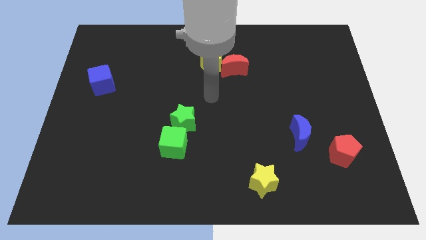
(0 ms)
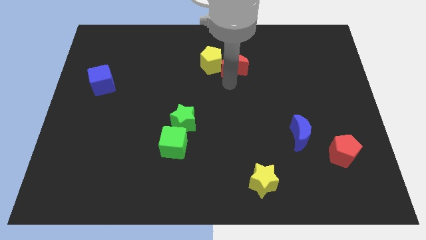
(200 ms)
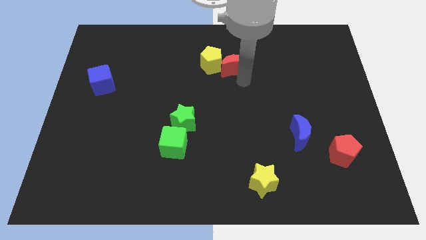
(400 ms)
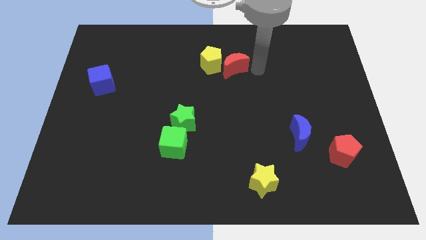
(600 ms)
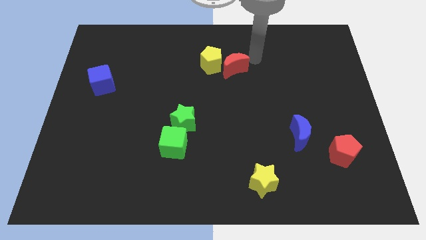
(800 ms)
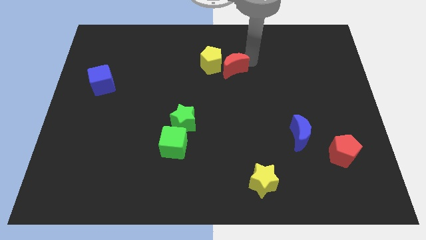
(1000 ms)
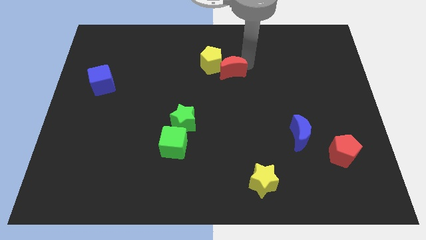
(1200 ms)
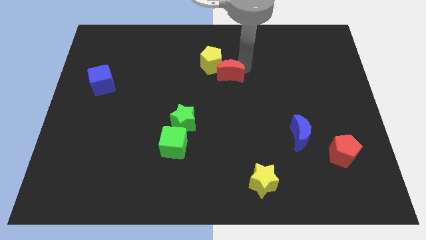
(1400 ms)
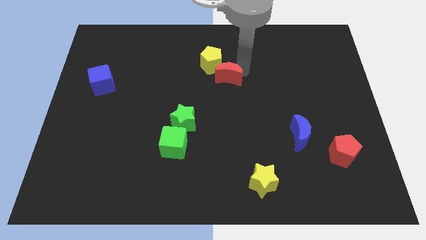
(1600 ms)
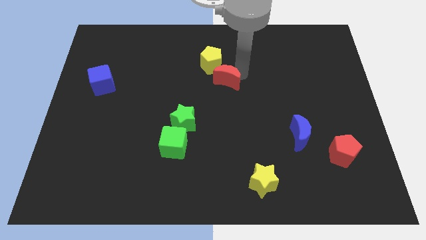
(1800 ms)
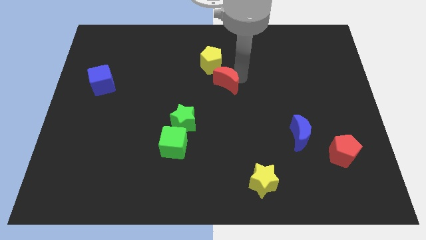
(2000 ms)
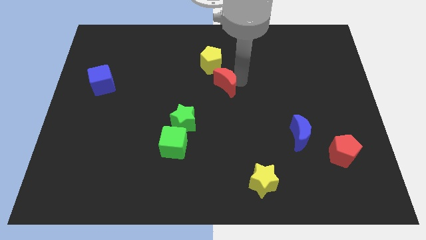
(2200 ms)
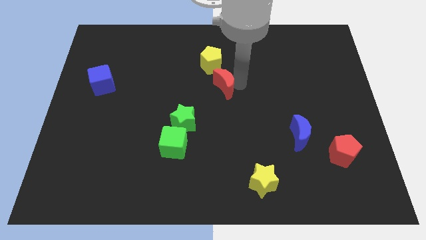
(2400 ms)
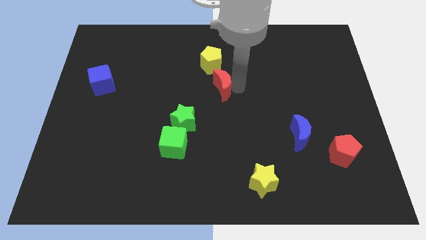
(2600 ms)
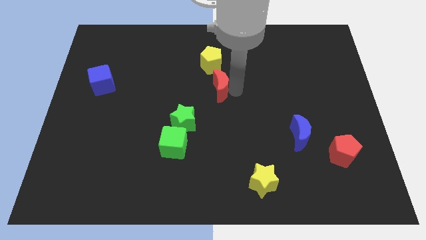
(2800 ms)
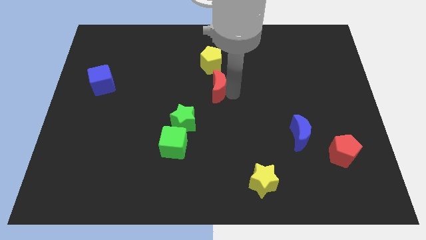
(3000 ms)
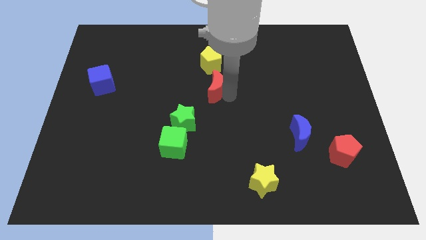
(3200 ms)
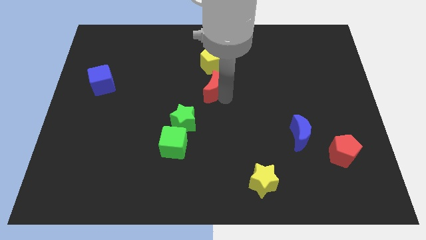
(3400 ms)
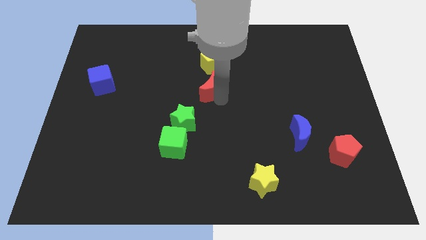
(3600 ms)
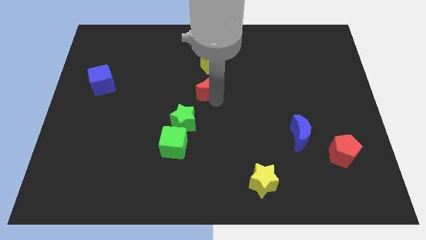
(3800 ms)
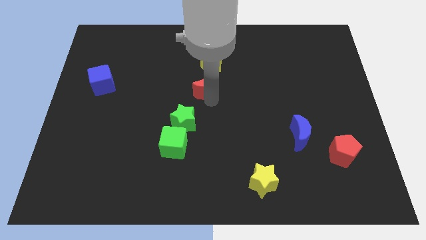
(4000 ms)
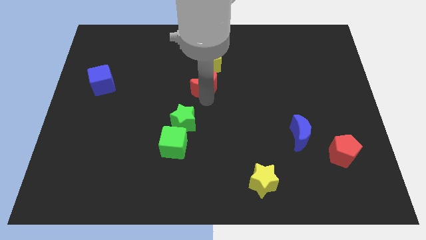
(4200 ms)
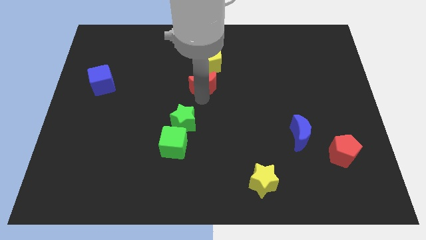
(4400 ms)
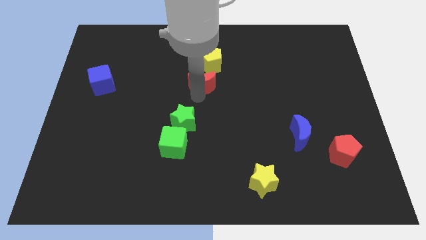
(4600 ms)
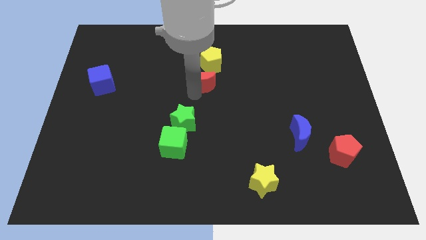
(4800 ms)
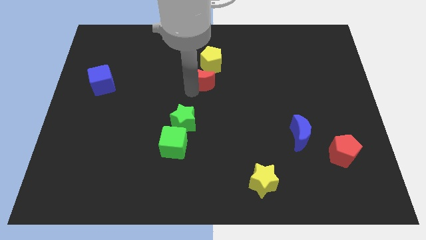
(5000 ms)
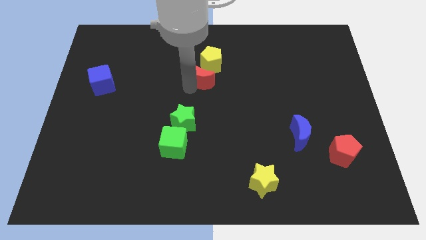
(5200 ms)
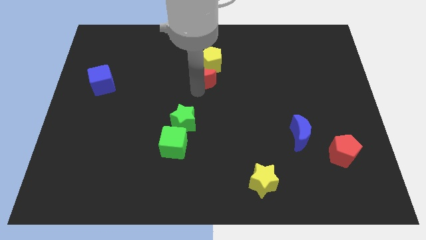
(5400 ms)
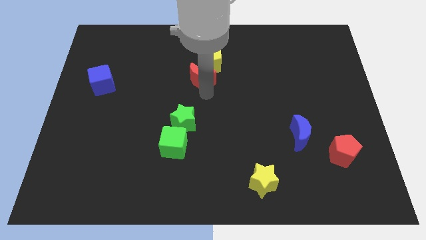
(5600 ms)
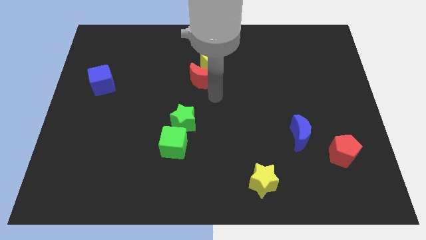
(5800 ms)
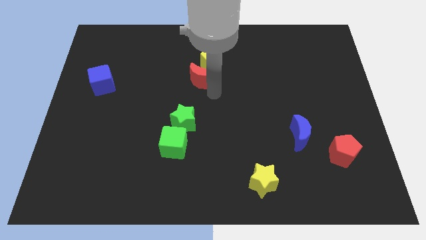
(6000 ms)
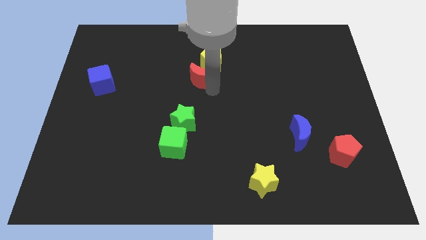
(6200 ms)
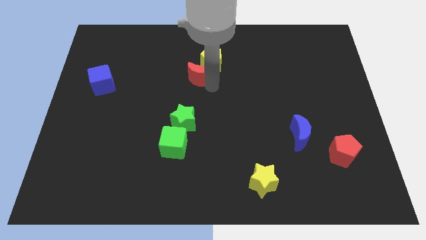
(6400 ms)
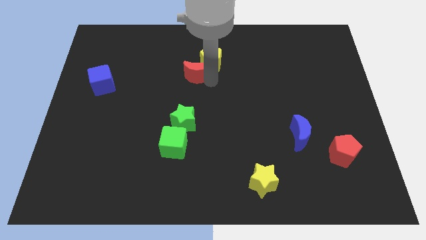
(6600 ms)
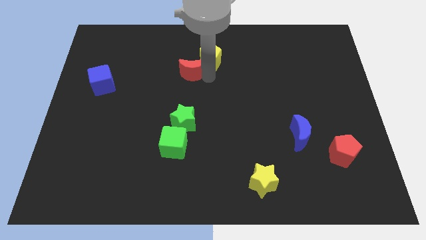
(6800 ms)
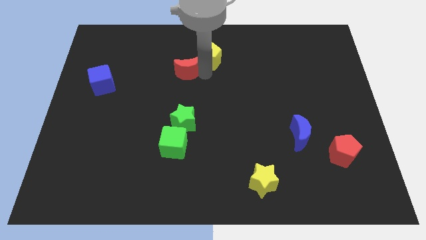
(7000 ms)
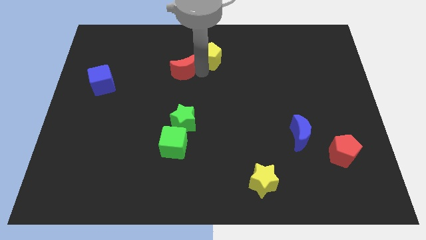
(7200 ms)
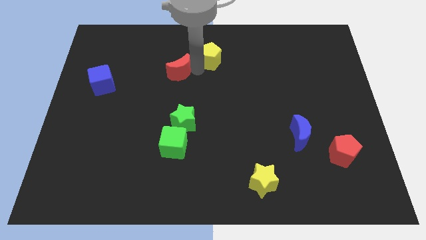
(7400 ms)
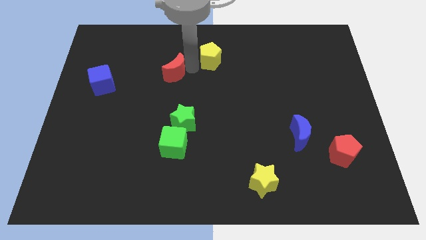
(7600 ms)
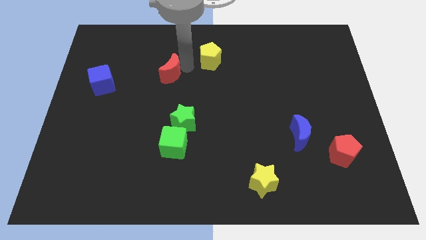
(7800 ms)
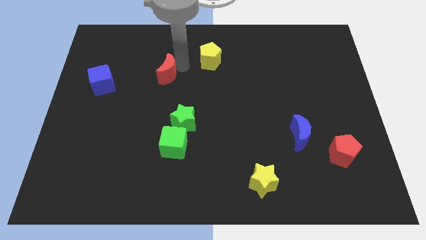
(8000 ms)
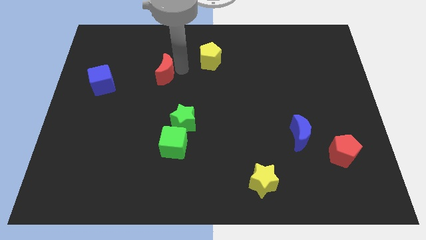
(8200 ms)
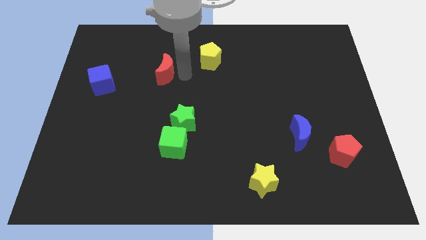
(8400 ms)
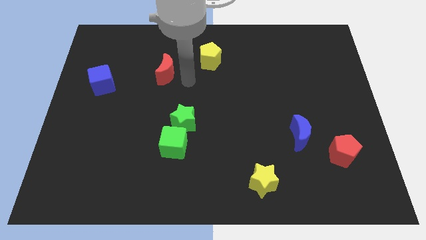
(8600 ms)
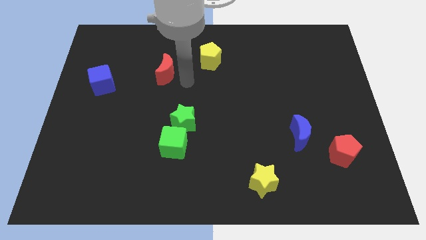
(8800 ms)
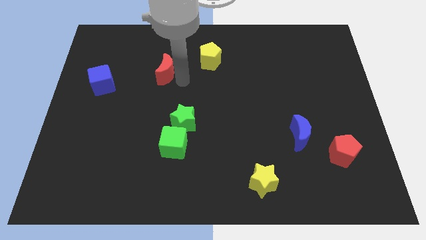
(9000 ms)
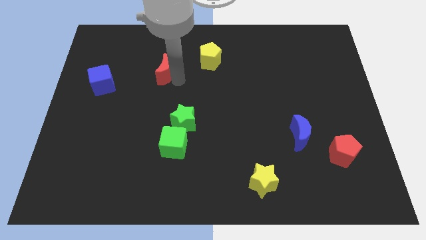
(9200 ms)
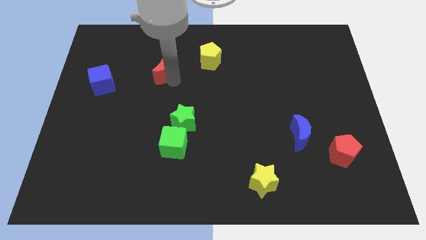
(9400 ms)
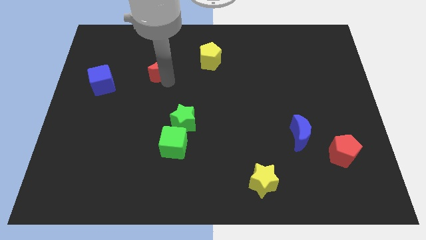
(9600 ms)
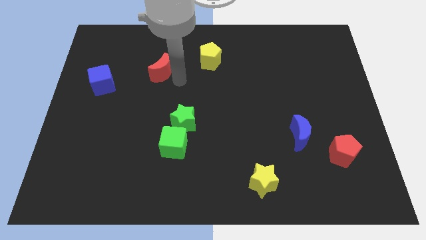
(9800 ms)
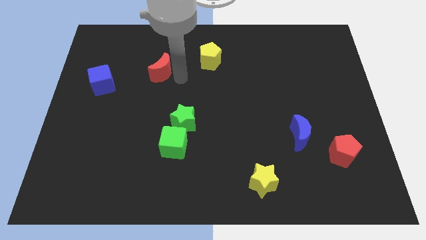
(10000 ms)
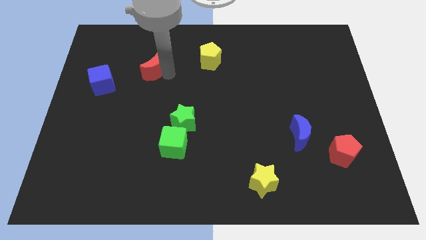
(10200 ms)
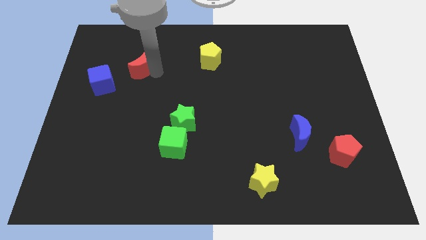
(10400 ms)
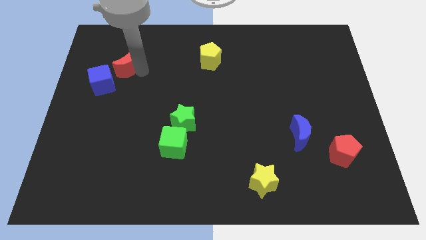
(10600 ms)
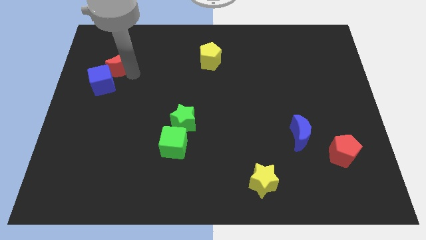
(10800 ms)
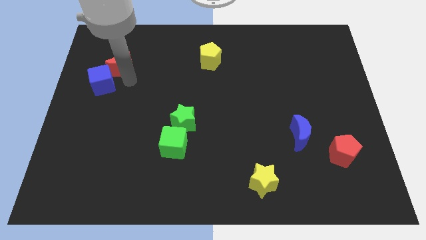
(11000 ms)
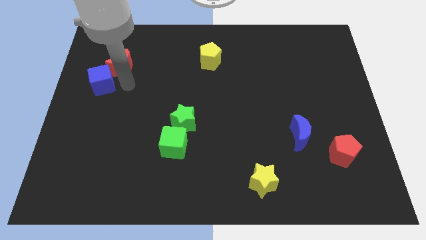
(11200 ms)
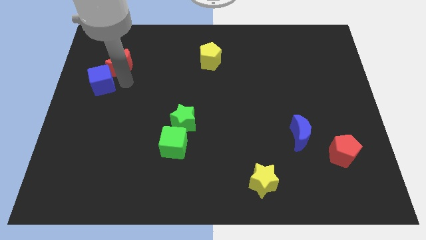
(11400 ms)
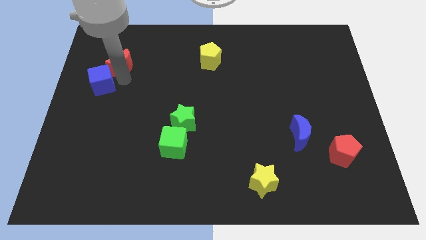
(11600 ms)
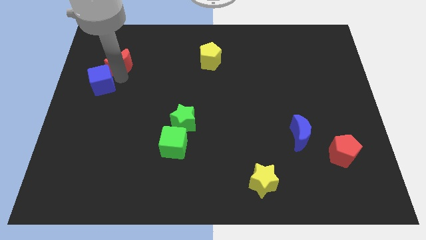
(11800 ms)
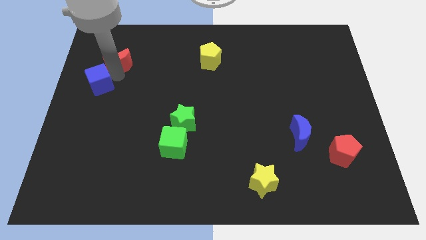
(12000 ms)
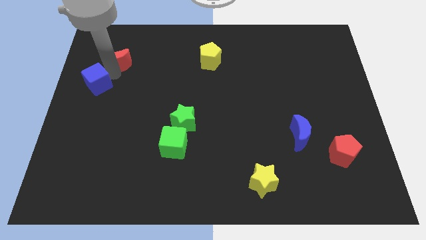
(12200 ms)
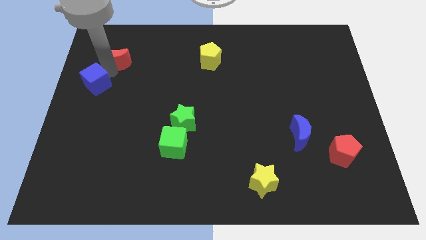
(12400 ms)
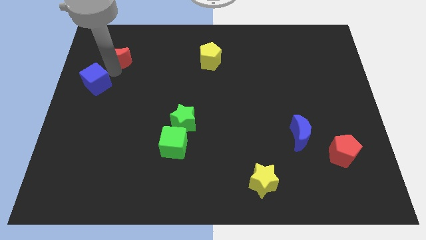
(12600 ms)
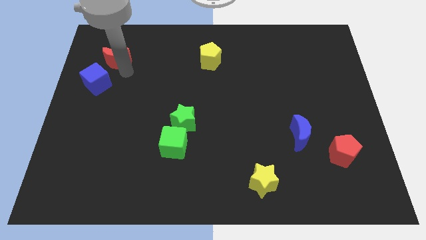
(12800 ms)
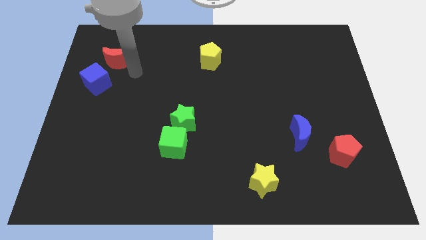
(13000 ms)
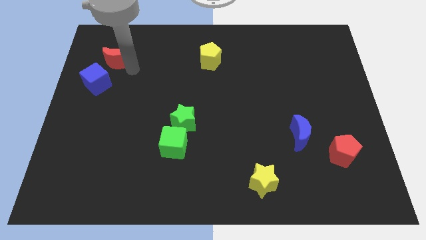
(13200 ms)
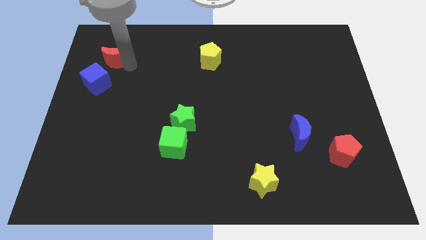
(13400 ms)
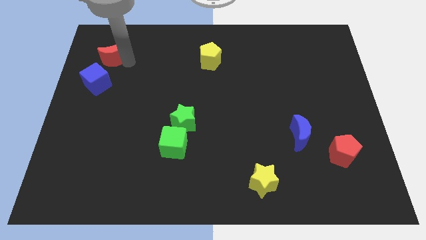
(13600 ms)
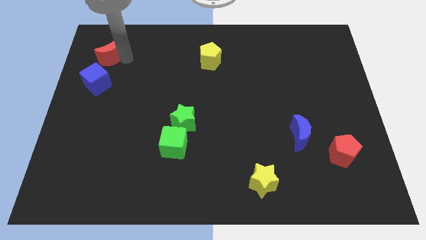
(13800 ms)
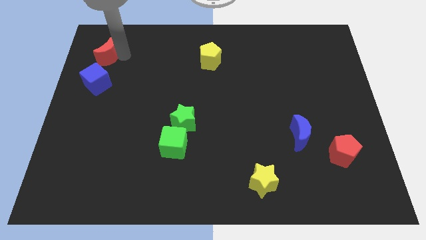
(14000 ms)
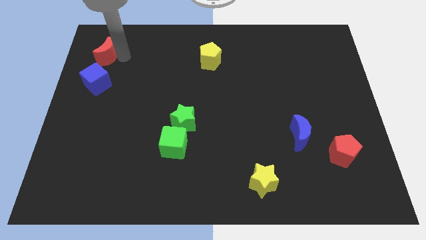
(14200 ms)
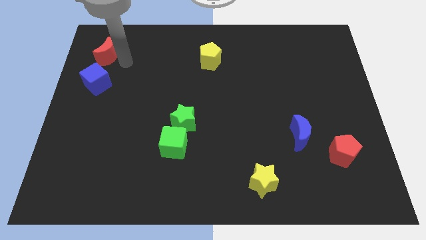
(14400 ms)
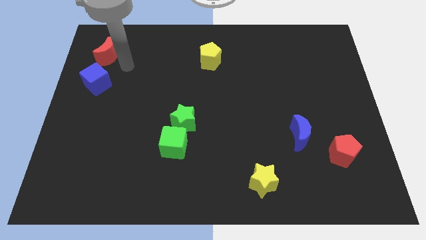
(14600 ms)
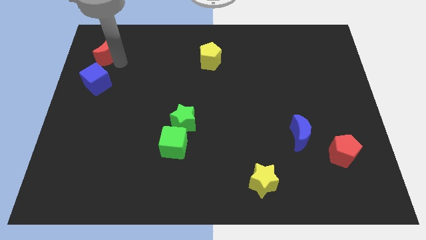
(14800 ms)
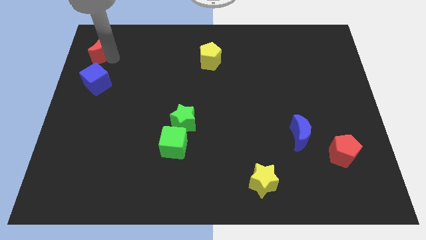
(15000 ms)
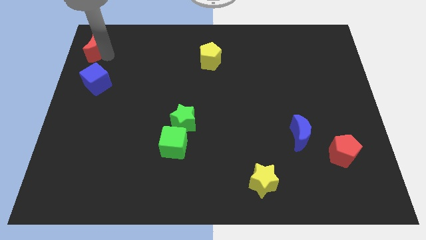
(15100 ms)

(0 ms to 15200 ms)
put the red moon to the top left
